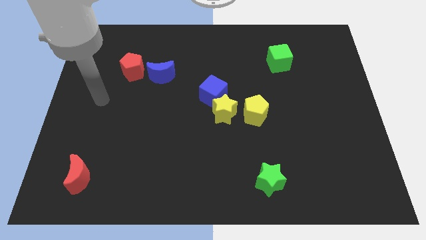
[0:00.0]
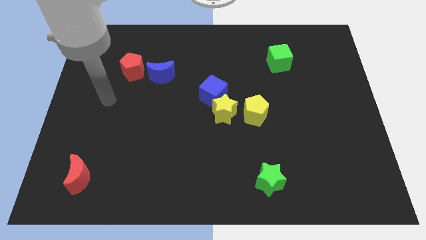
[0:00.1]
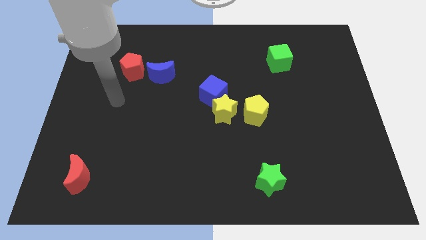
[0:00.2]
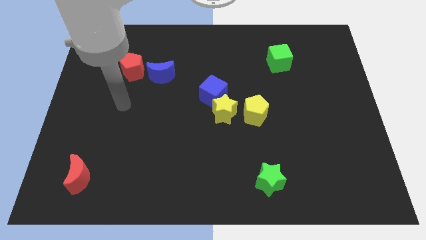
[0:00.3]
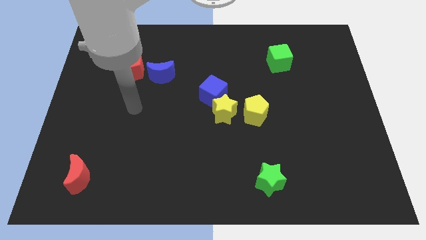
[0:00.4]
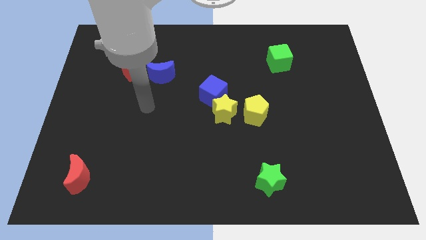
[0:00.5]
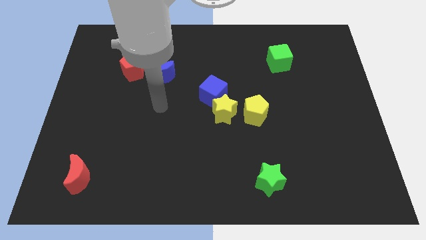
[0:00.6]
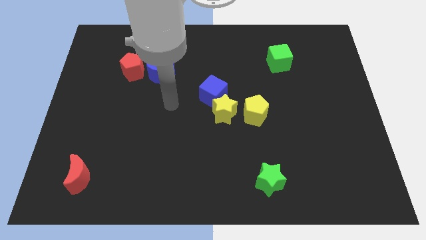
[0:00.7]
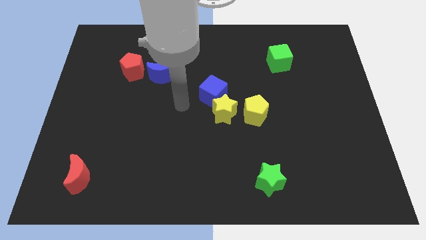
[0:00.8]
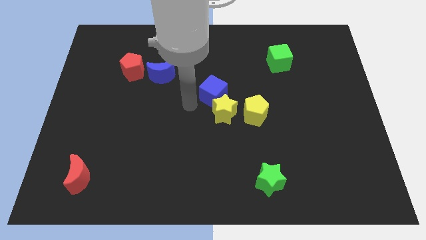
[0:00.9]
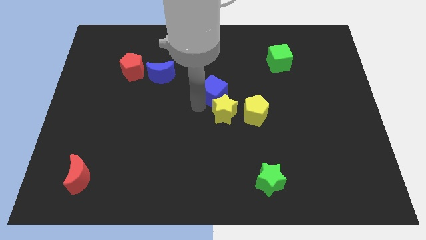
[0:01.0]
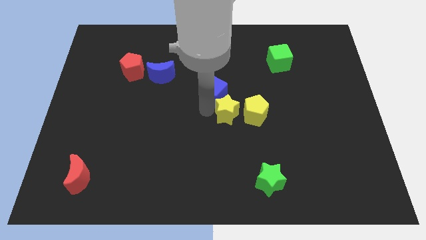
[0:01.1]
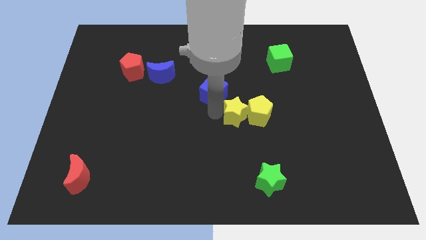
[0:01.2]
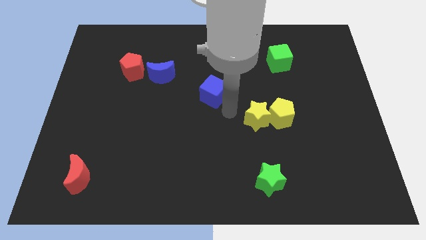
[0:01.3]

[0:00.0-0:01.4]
move the blue cube away from the yellow star

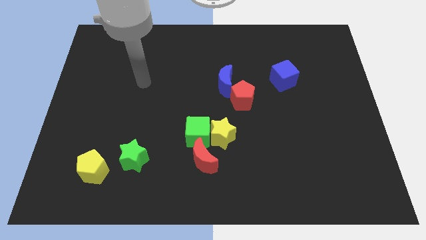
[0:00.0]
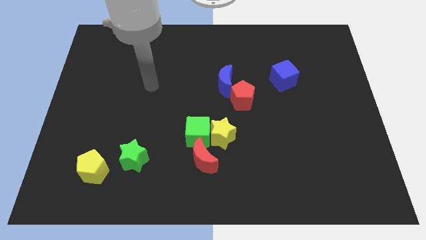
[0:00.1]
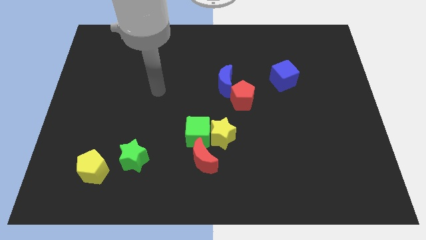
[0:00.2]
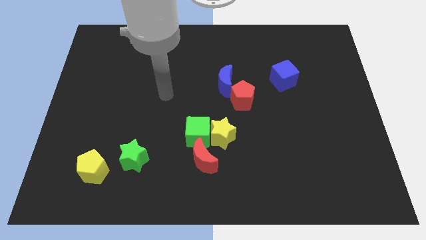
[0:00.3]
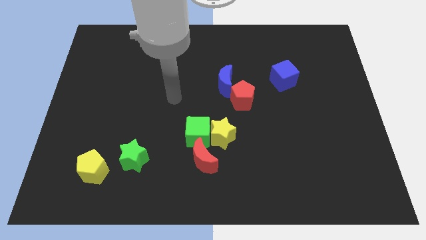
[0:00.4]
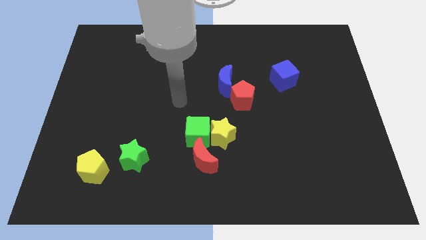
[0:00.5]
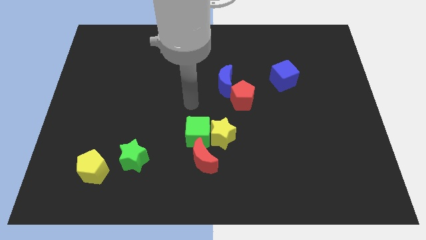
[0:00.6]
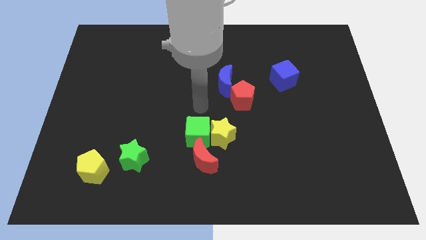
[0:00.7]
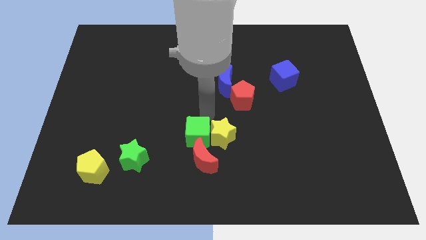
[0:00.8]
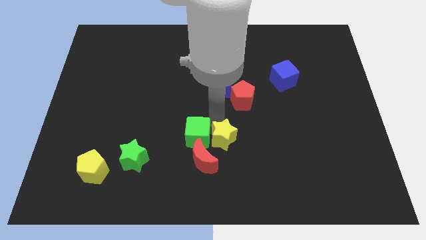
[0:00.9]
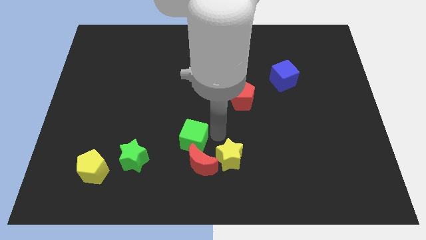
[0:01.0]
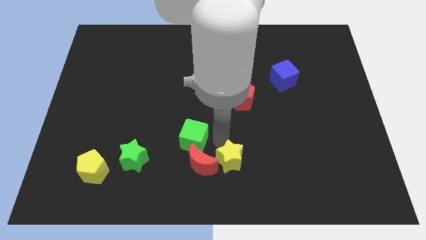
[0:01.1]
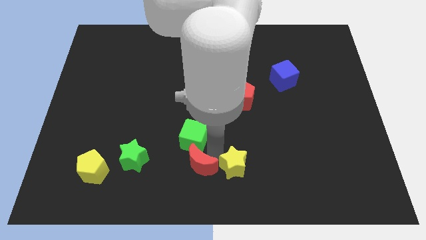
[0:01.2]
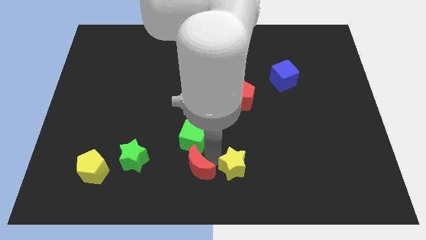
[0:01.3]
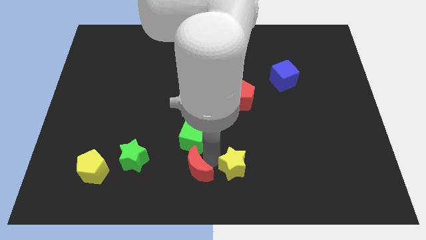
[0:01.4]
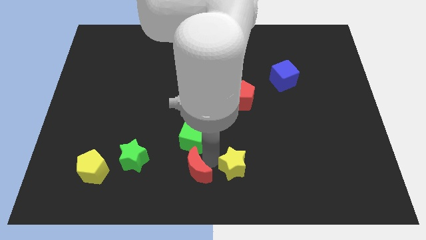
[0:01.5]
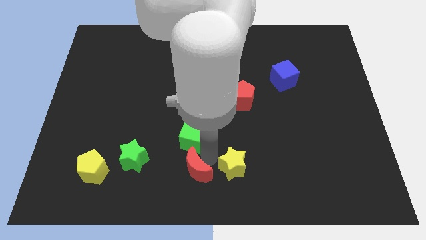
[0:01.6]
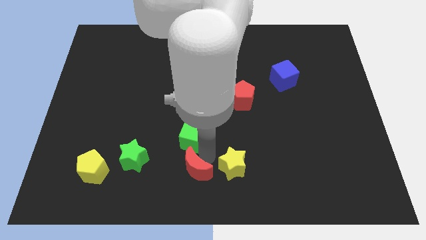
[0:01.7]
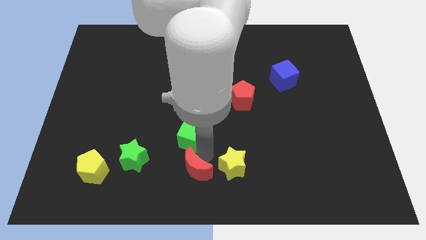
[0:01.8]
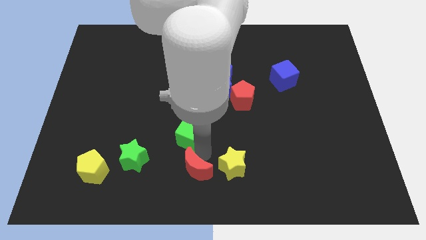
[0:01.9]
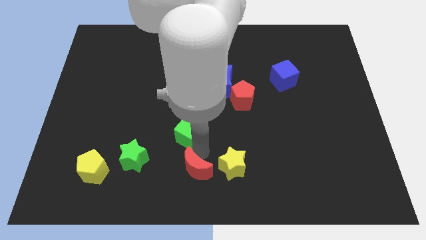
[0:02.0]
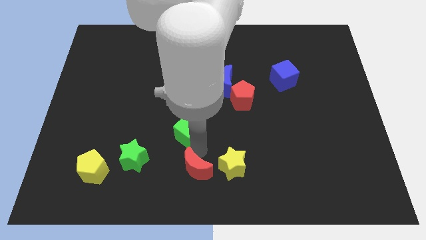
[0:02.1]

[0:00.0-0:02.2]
move the green cube away from the yellow star and red moon

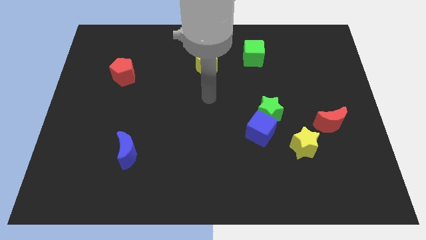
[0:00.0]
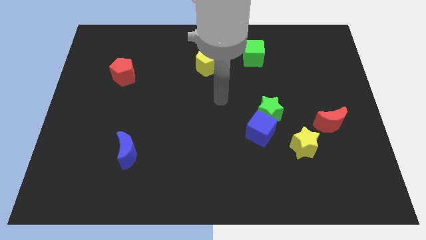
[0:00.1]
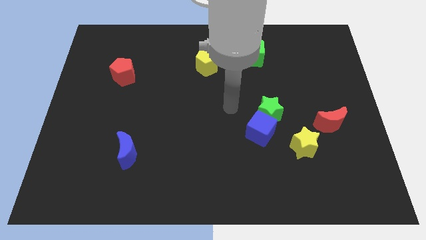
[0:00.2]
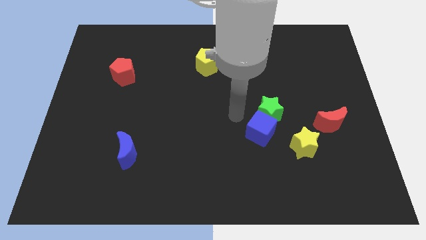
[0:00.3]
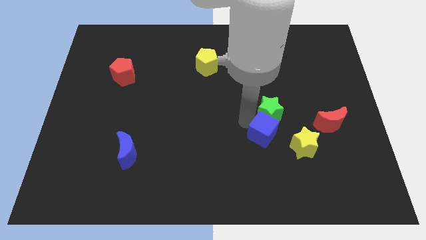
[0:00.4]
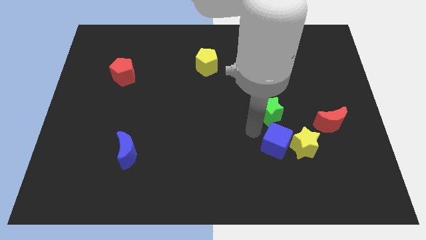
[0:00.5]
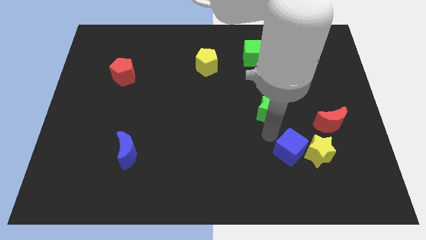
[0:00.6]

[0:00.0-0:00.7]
pull the green star apart from the blue cube

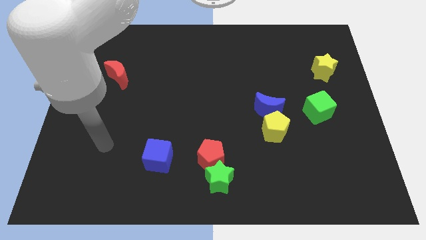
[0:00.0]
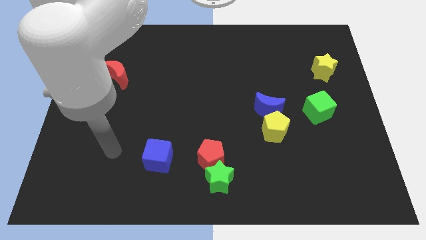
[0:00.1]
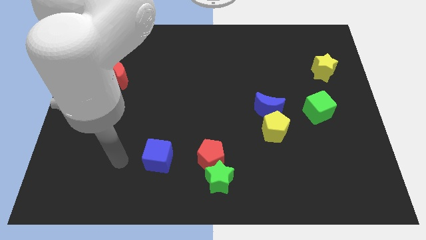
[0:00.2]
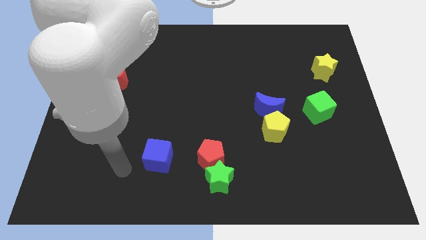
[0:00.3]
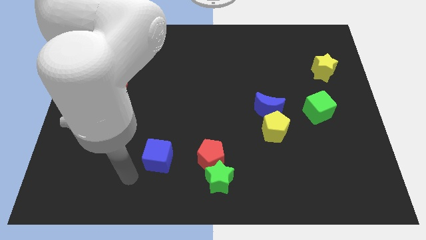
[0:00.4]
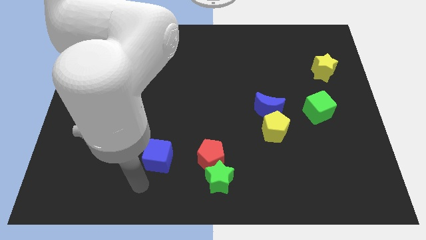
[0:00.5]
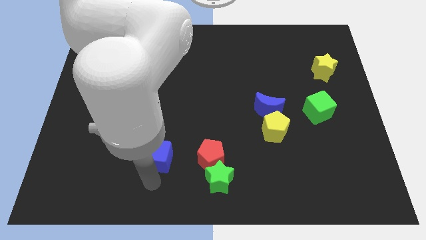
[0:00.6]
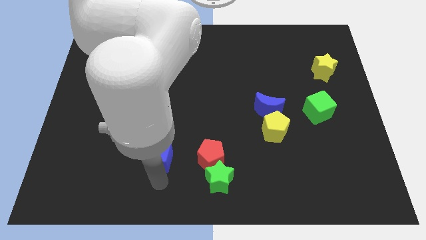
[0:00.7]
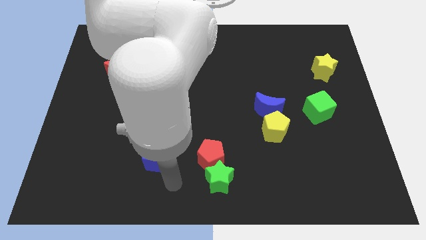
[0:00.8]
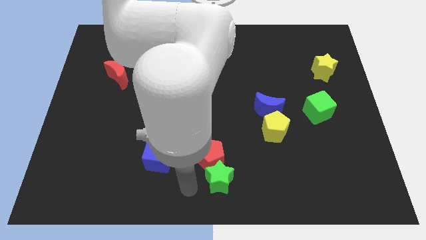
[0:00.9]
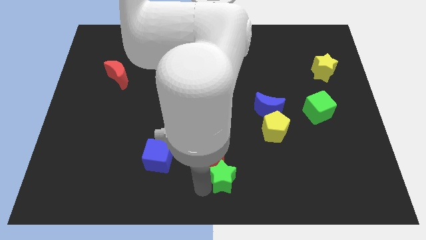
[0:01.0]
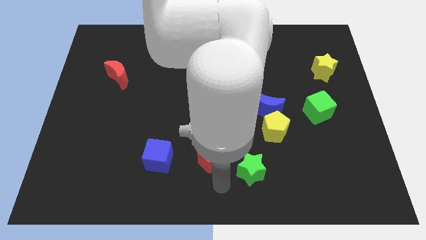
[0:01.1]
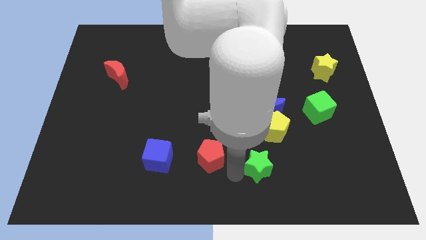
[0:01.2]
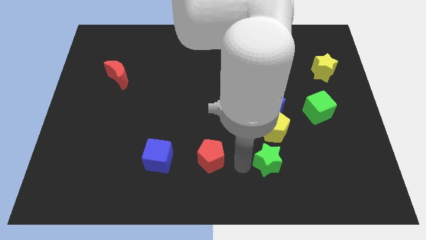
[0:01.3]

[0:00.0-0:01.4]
separate the red pentagon from the green star

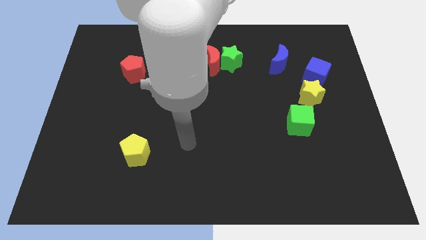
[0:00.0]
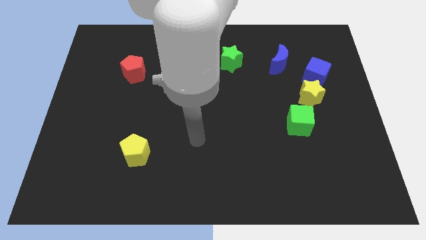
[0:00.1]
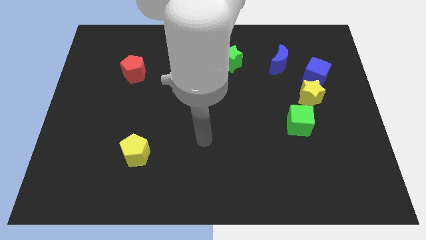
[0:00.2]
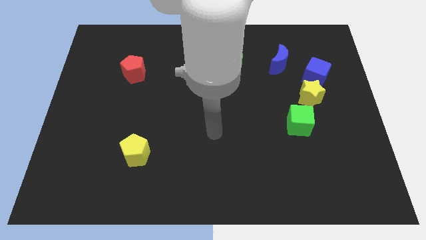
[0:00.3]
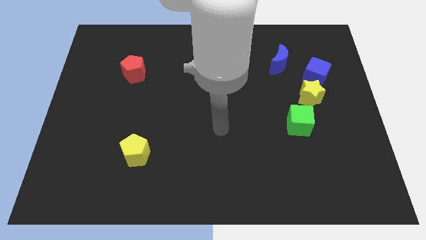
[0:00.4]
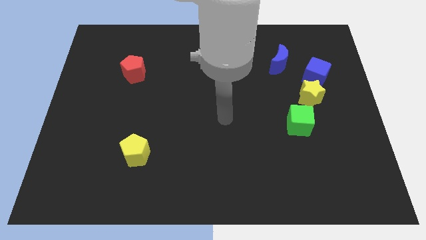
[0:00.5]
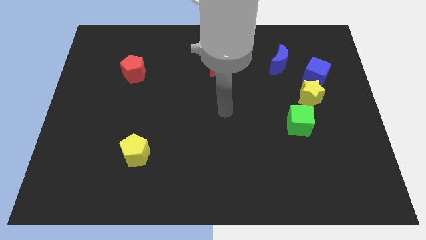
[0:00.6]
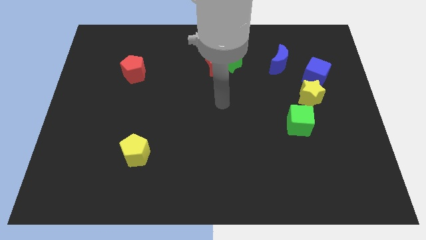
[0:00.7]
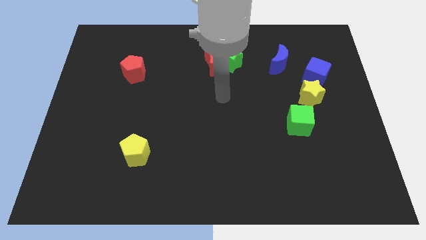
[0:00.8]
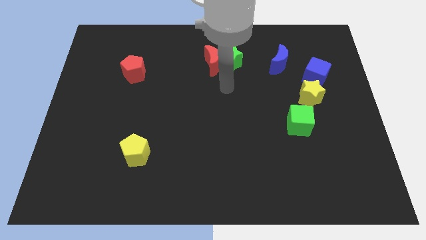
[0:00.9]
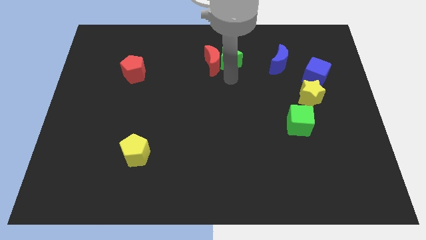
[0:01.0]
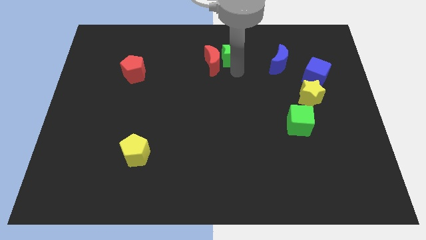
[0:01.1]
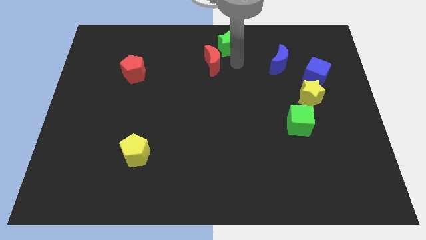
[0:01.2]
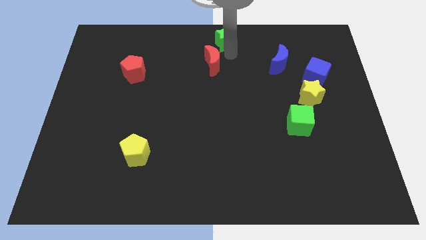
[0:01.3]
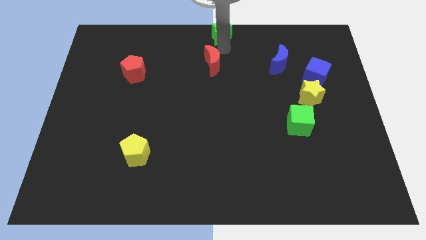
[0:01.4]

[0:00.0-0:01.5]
separate the red moon from the green star

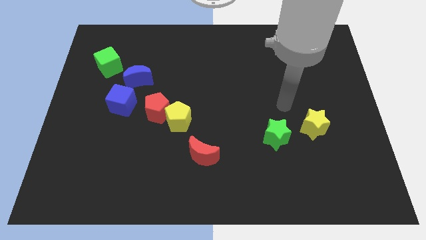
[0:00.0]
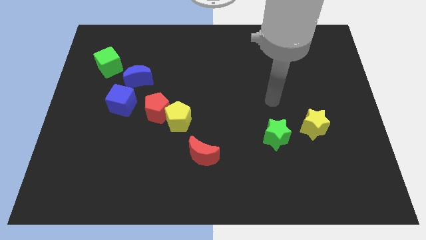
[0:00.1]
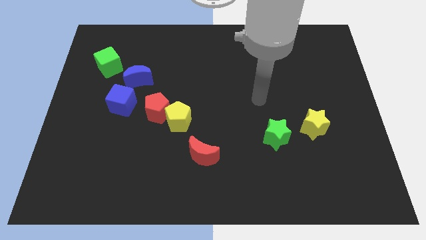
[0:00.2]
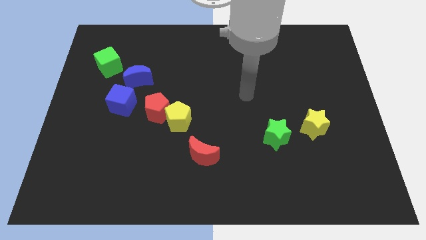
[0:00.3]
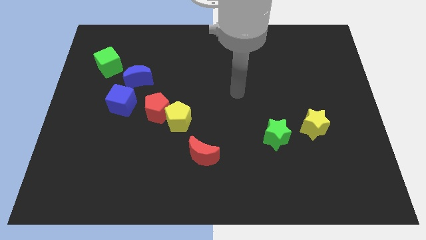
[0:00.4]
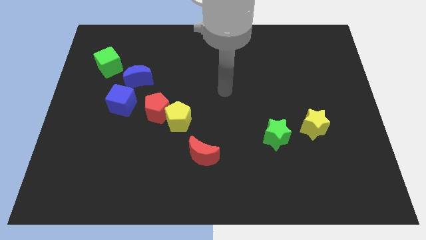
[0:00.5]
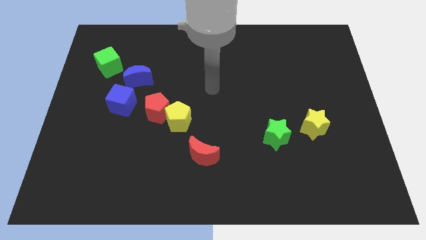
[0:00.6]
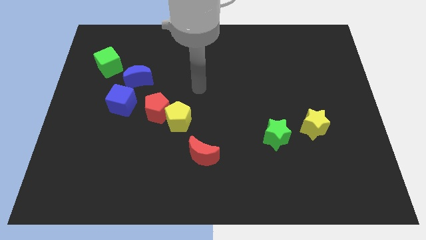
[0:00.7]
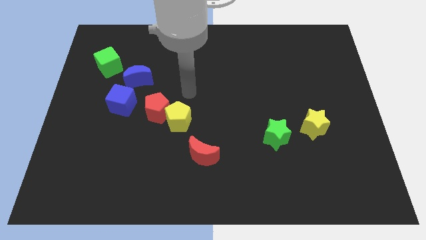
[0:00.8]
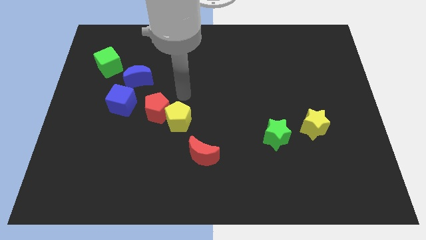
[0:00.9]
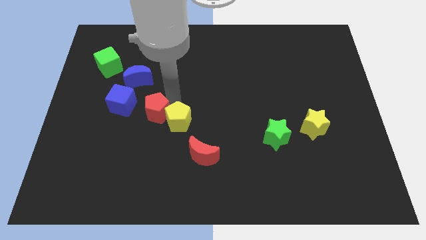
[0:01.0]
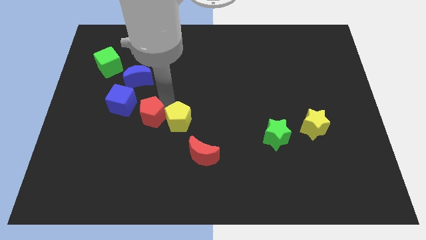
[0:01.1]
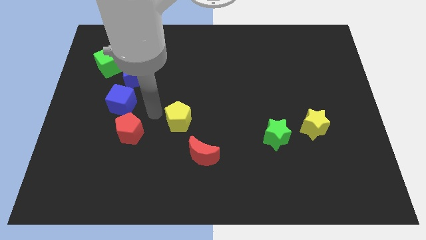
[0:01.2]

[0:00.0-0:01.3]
move the yellow pentagon away from the red pentagon

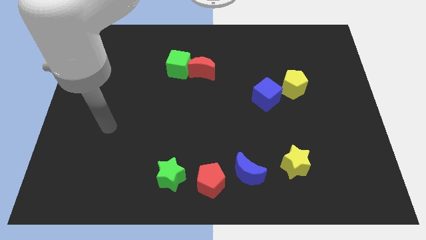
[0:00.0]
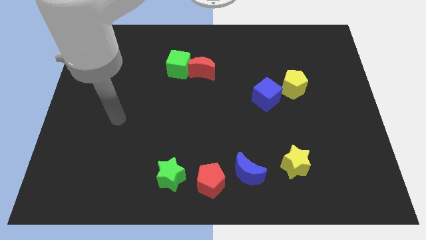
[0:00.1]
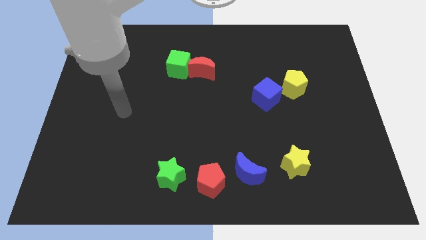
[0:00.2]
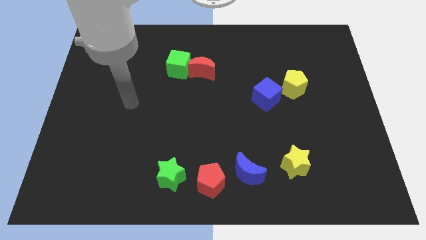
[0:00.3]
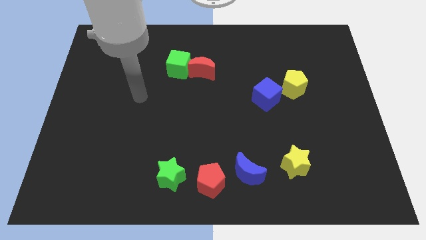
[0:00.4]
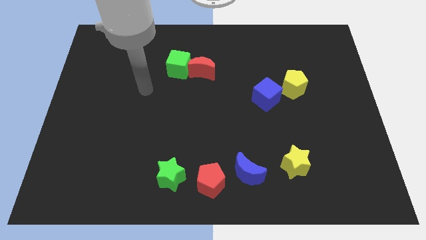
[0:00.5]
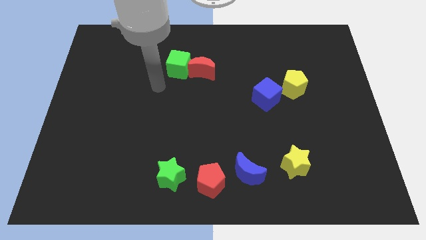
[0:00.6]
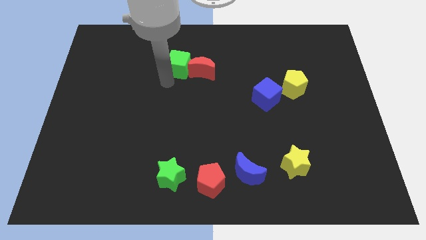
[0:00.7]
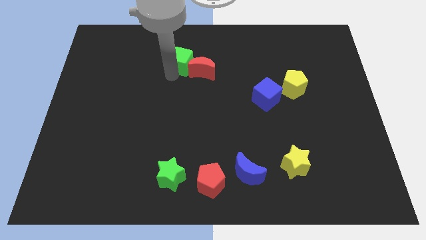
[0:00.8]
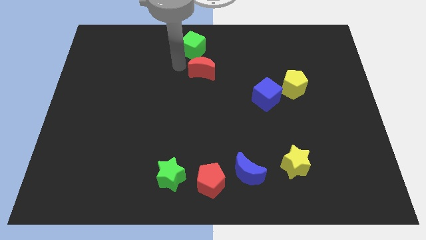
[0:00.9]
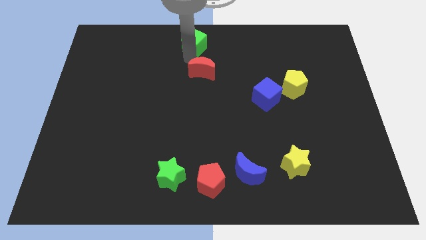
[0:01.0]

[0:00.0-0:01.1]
pull the red moon apart from the green cube
